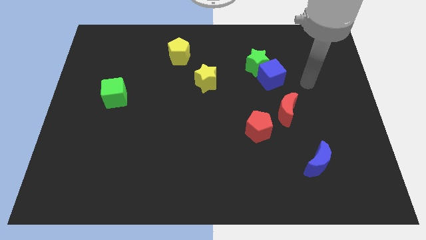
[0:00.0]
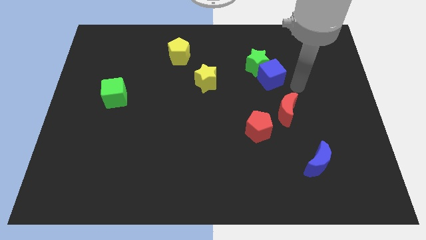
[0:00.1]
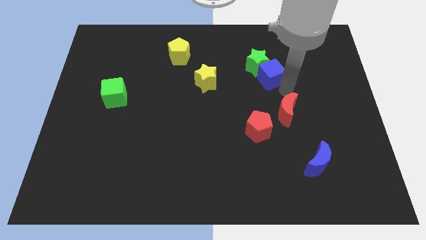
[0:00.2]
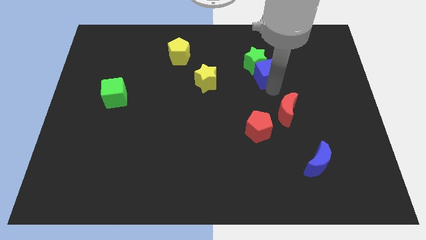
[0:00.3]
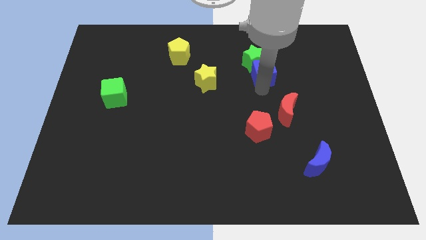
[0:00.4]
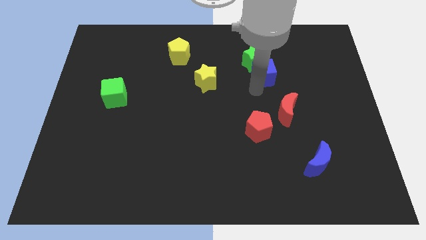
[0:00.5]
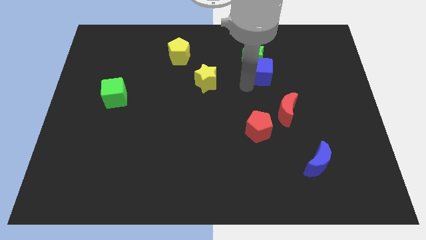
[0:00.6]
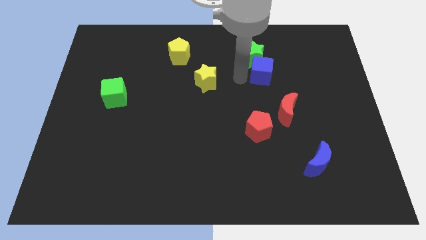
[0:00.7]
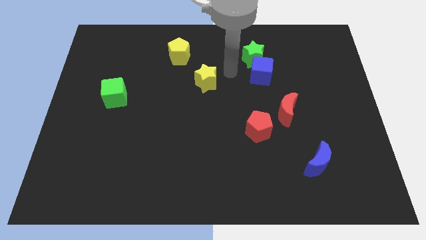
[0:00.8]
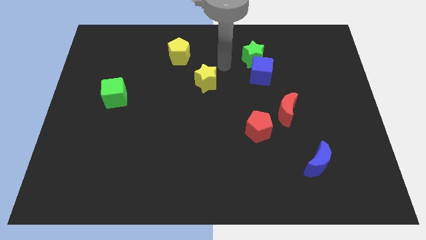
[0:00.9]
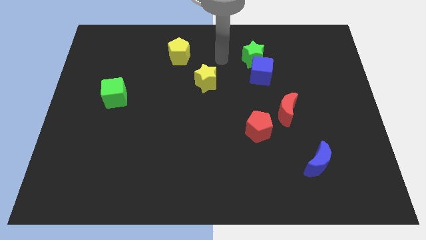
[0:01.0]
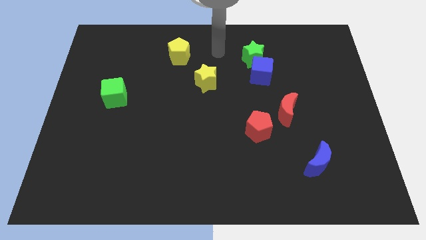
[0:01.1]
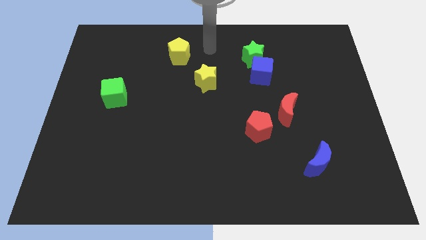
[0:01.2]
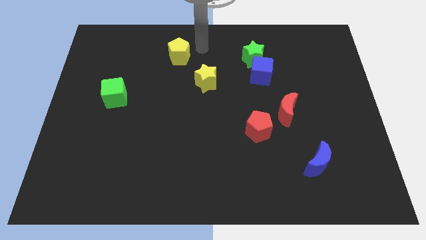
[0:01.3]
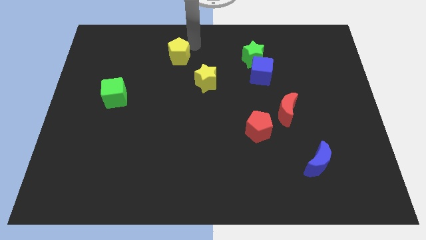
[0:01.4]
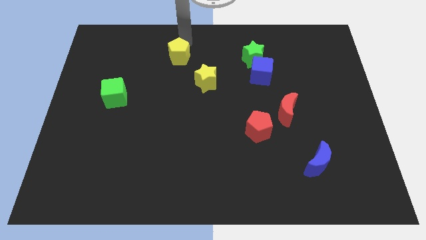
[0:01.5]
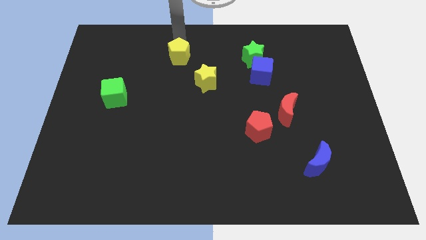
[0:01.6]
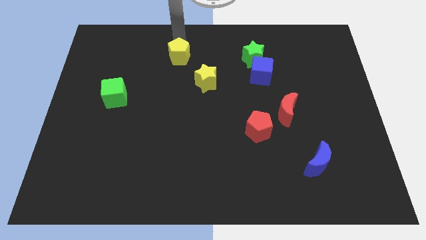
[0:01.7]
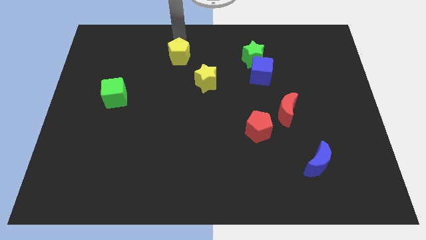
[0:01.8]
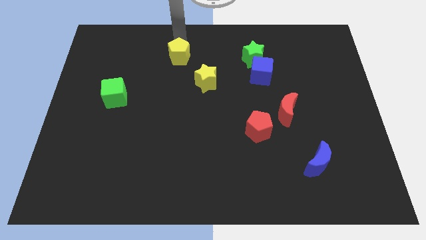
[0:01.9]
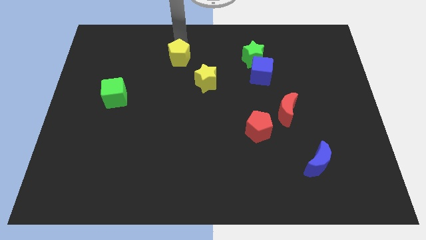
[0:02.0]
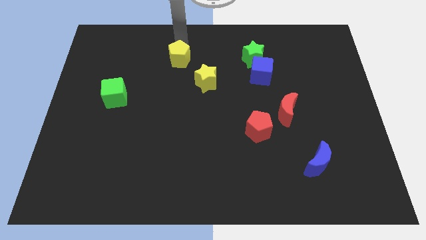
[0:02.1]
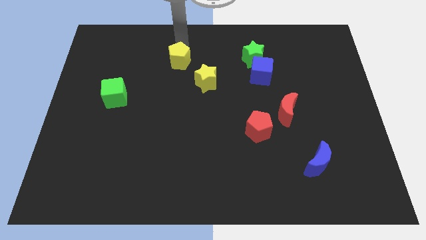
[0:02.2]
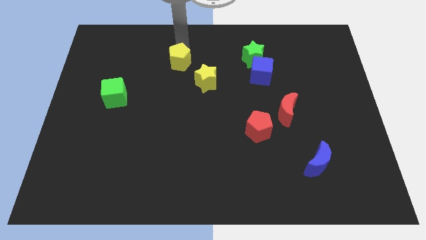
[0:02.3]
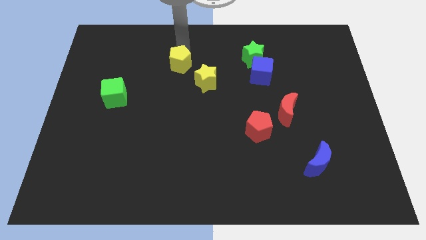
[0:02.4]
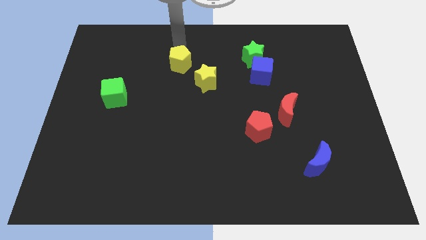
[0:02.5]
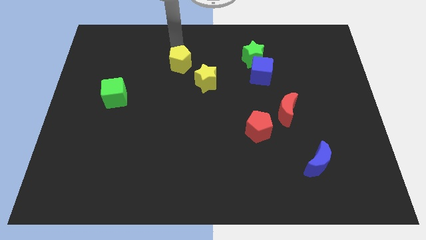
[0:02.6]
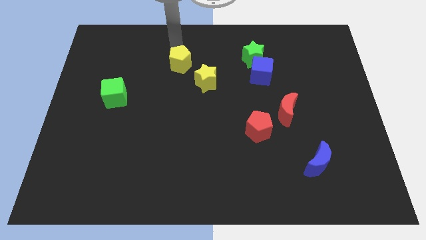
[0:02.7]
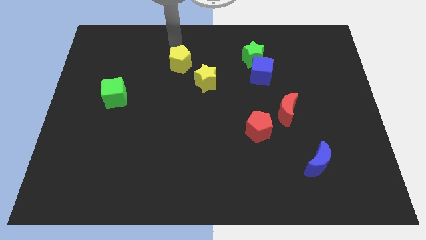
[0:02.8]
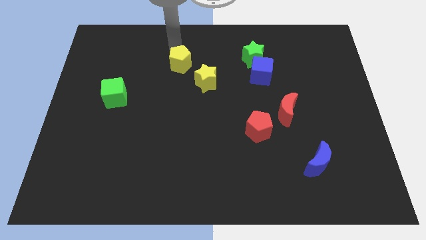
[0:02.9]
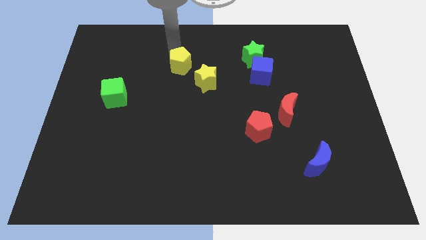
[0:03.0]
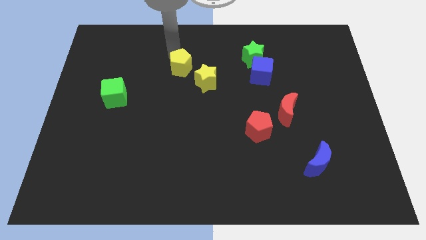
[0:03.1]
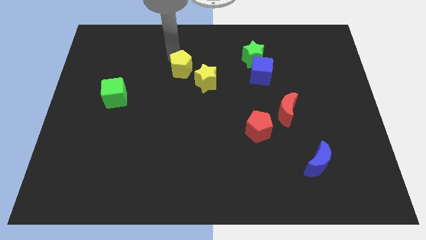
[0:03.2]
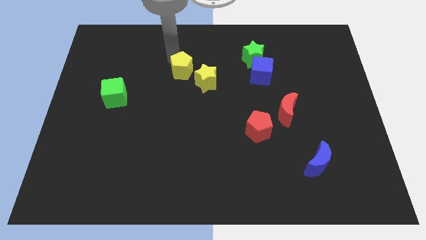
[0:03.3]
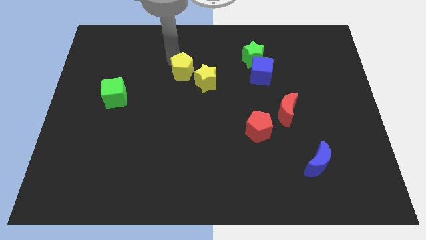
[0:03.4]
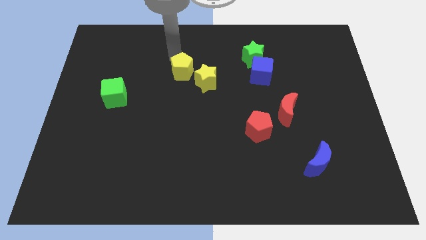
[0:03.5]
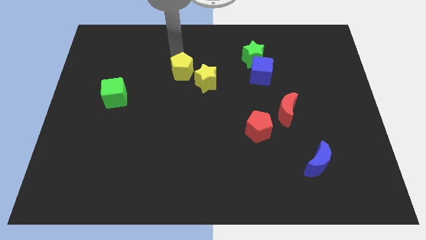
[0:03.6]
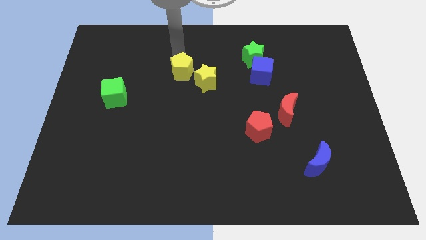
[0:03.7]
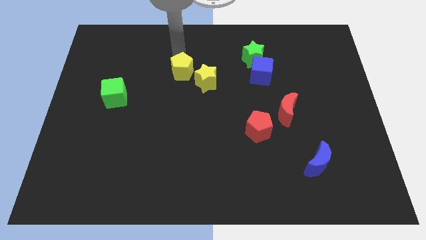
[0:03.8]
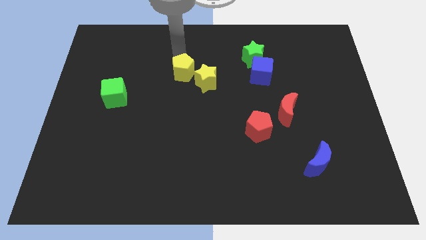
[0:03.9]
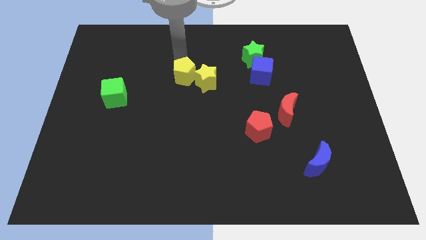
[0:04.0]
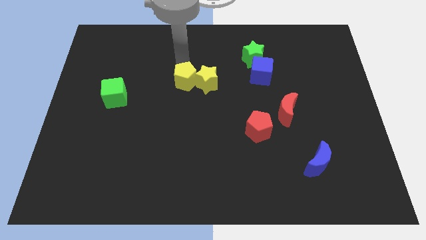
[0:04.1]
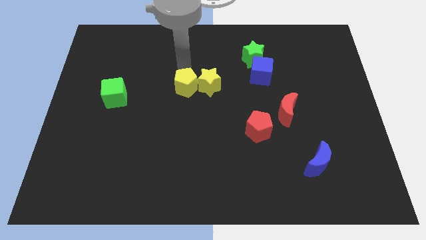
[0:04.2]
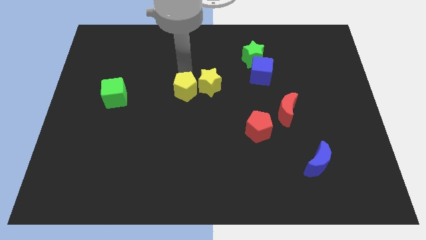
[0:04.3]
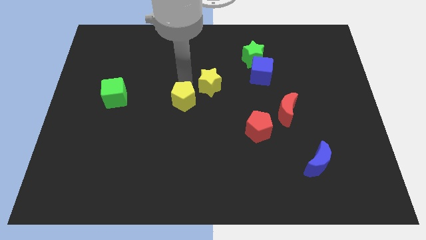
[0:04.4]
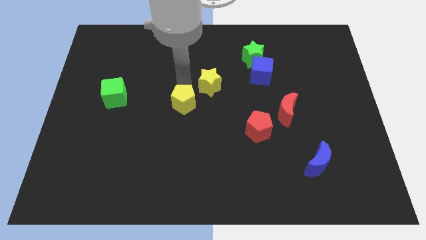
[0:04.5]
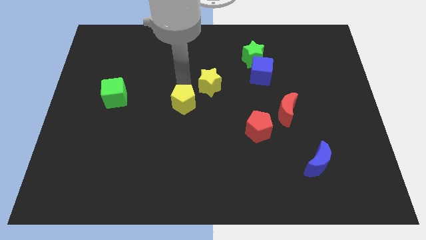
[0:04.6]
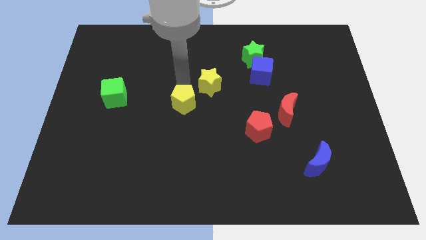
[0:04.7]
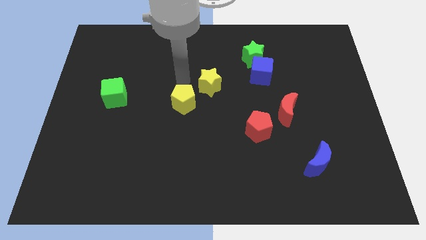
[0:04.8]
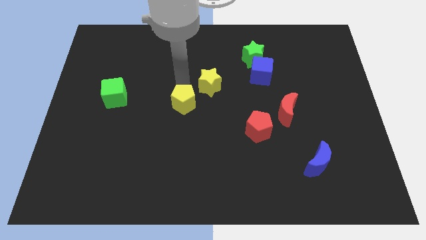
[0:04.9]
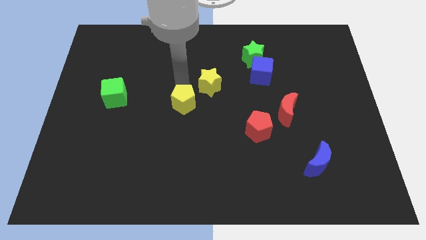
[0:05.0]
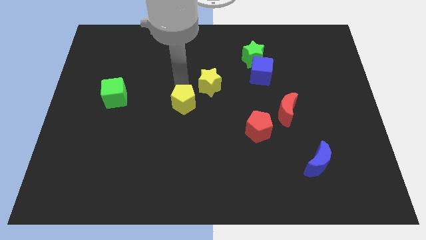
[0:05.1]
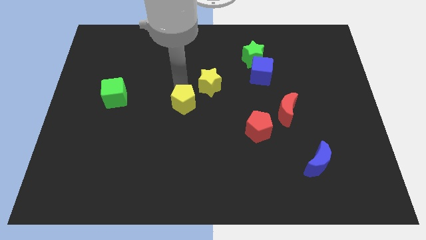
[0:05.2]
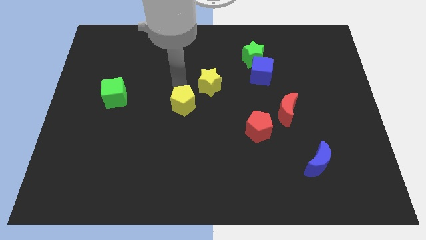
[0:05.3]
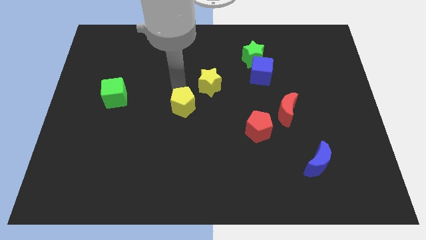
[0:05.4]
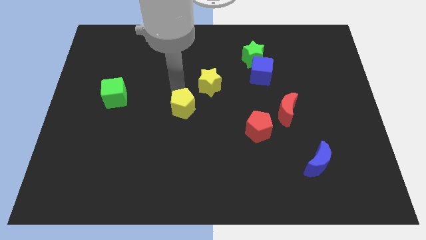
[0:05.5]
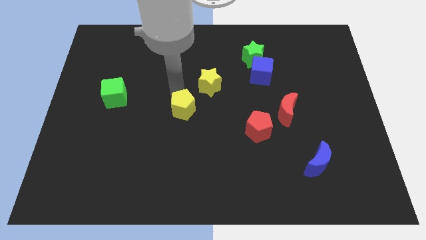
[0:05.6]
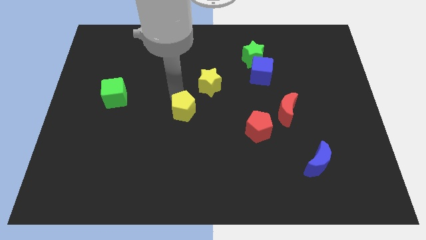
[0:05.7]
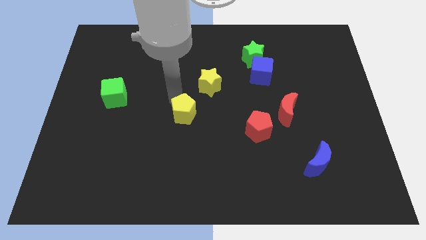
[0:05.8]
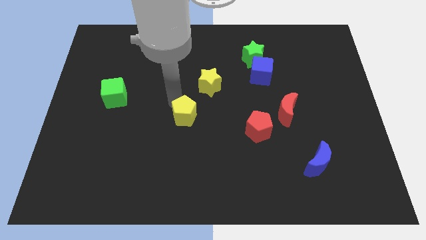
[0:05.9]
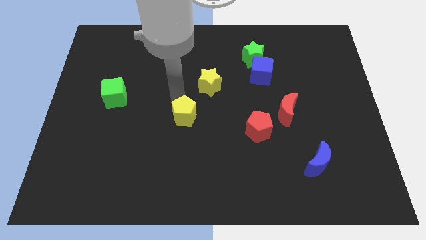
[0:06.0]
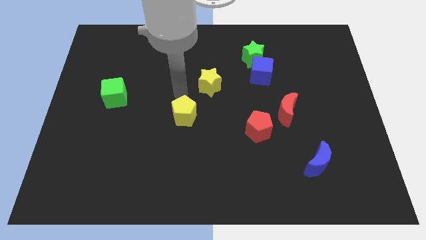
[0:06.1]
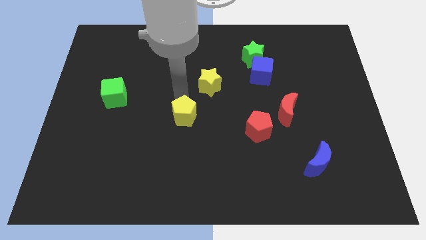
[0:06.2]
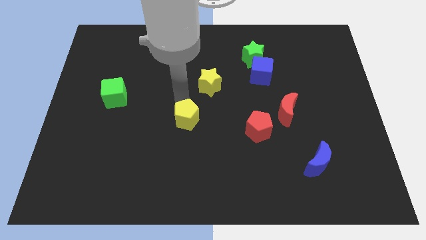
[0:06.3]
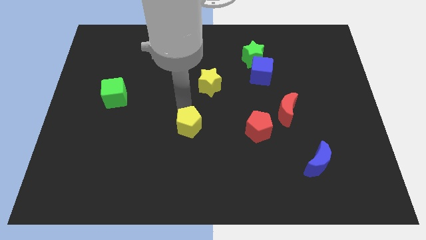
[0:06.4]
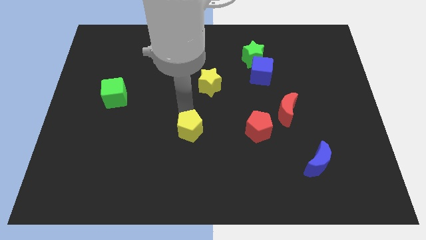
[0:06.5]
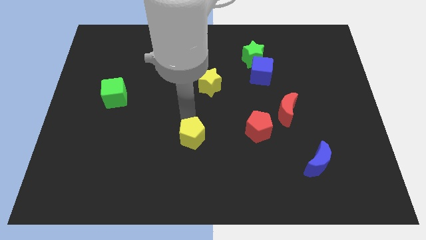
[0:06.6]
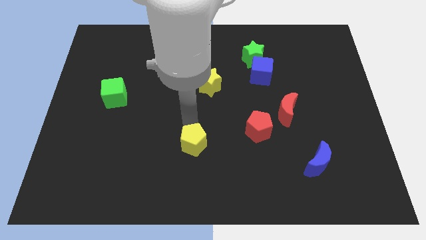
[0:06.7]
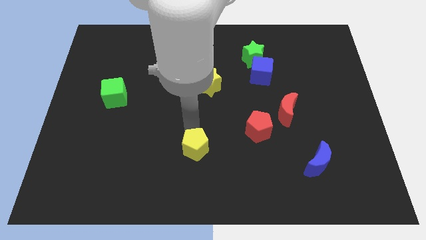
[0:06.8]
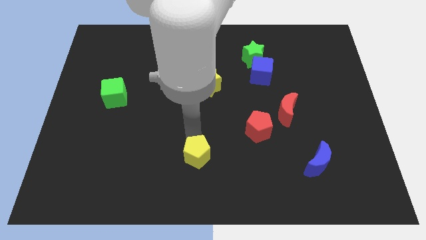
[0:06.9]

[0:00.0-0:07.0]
push the yellow pentagon to the bottom side
